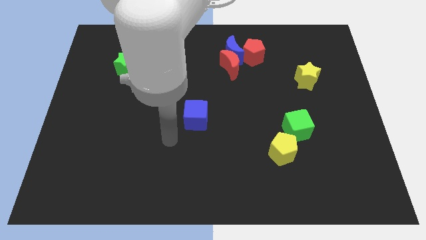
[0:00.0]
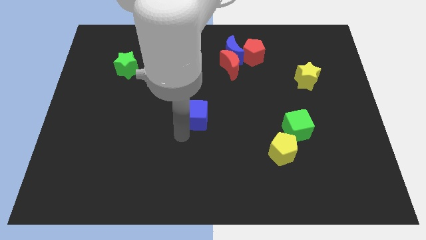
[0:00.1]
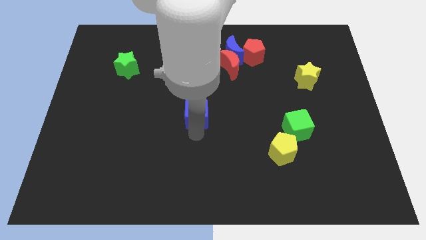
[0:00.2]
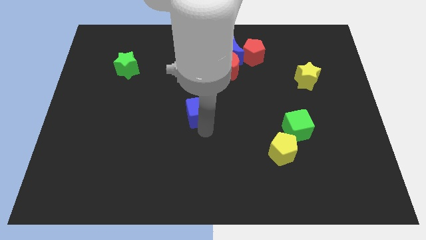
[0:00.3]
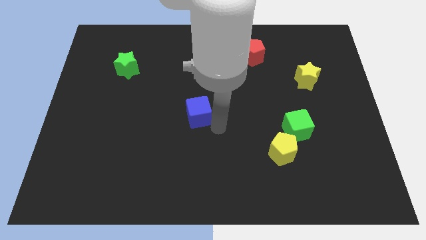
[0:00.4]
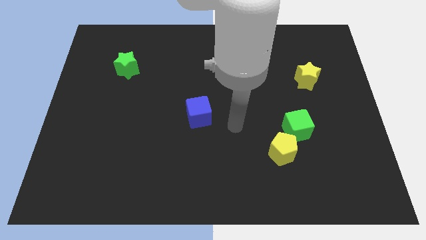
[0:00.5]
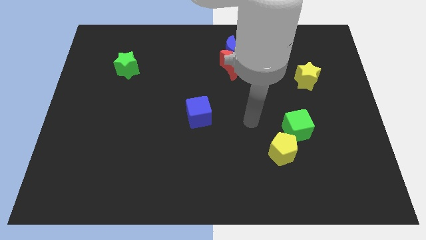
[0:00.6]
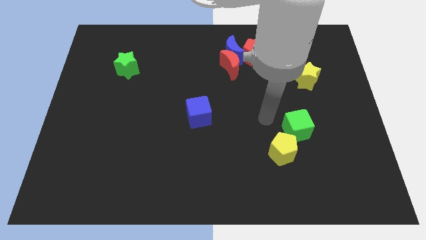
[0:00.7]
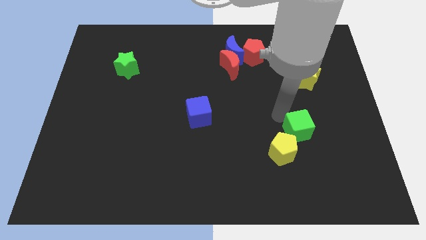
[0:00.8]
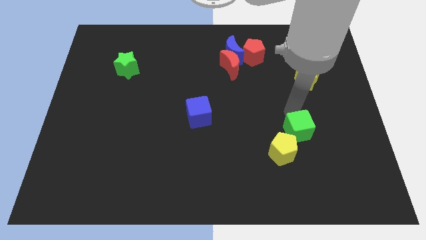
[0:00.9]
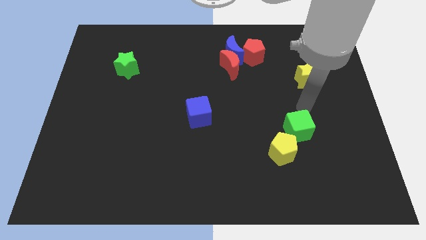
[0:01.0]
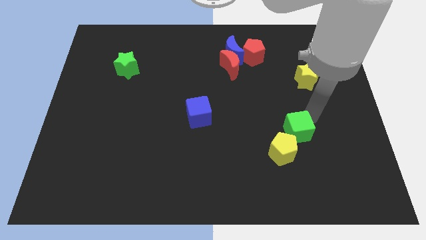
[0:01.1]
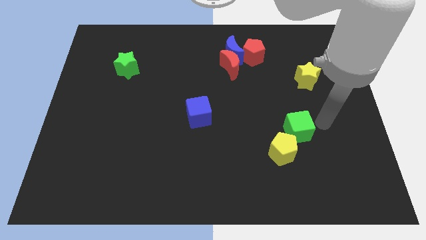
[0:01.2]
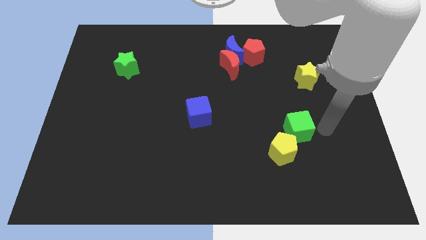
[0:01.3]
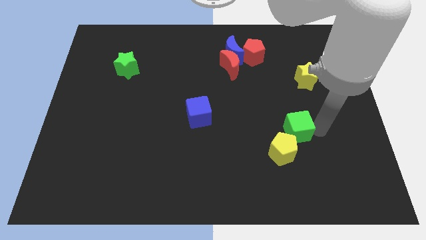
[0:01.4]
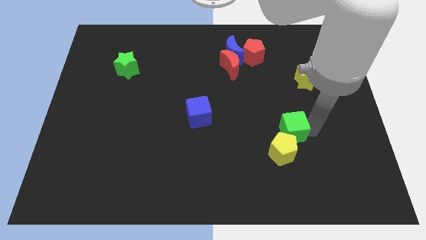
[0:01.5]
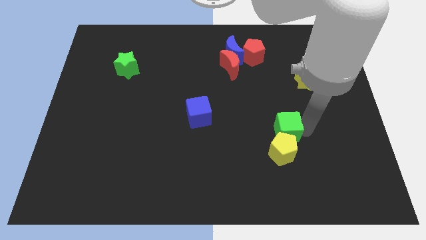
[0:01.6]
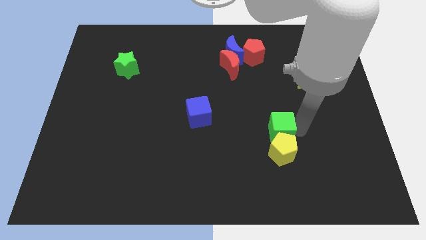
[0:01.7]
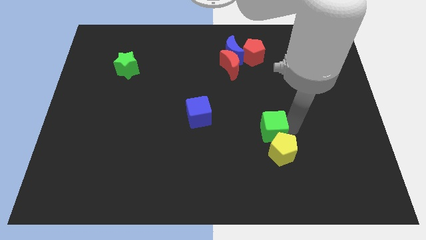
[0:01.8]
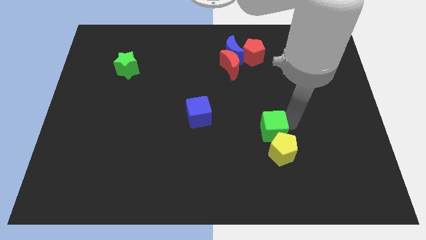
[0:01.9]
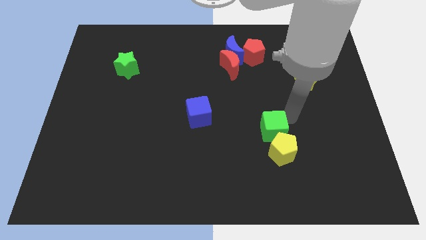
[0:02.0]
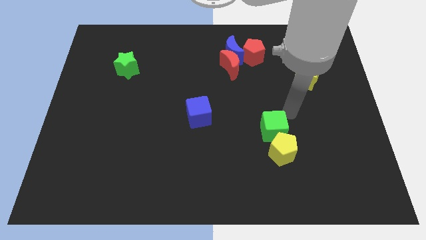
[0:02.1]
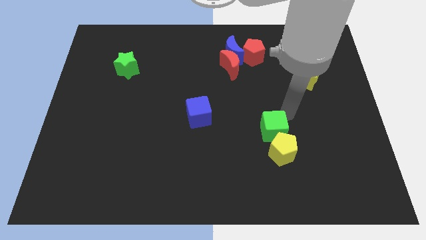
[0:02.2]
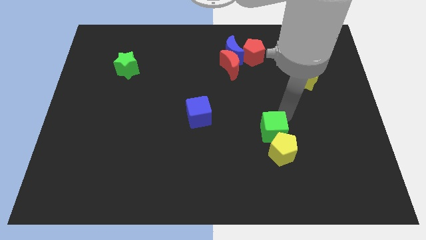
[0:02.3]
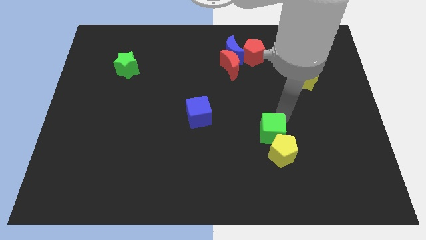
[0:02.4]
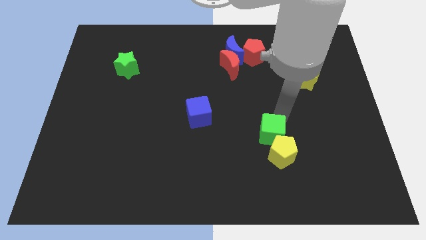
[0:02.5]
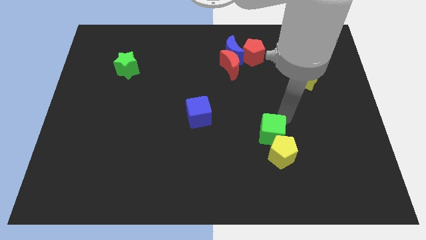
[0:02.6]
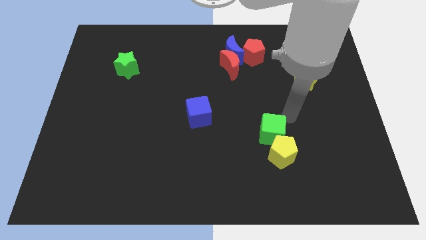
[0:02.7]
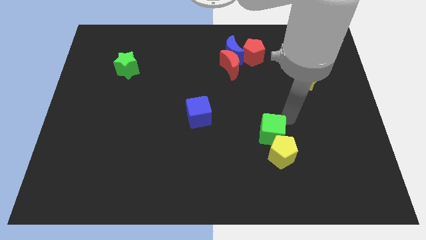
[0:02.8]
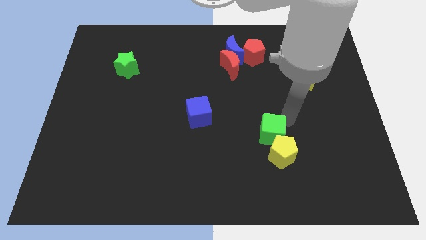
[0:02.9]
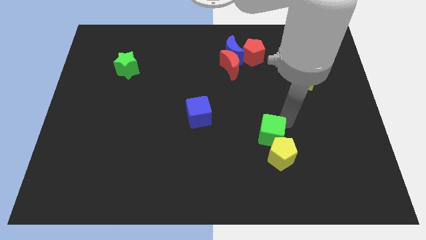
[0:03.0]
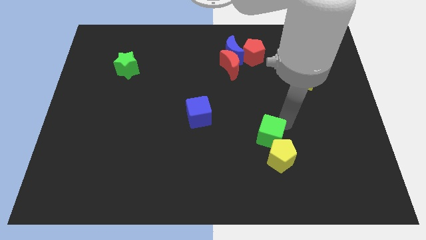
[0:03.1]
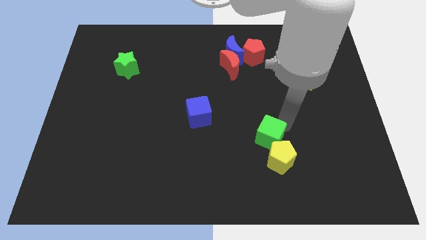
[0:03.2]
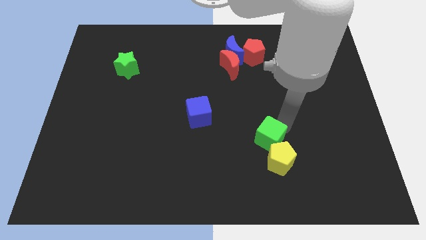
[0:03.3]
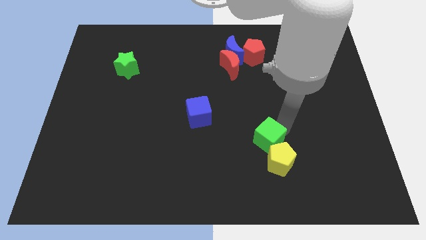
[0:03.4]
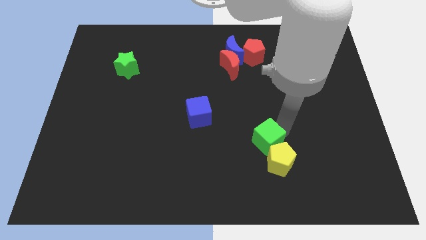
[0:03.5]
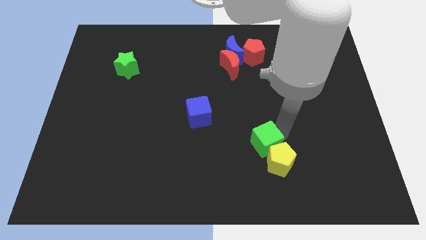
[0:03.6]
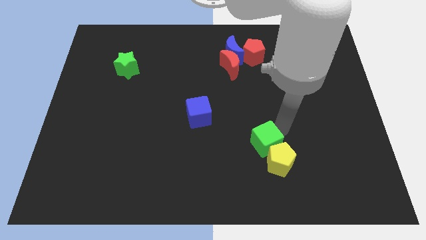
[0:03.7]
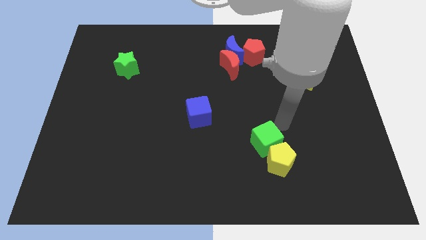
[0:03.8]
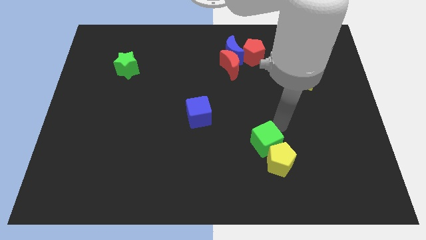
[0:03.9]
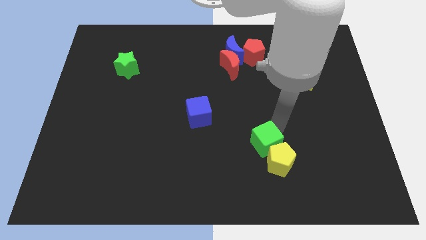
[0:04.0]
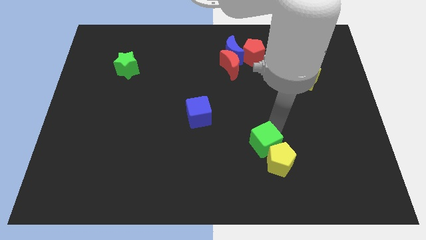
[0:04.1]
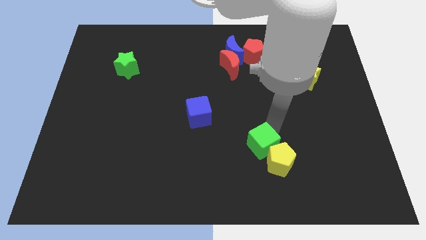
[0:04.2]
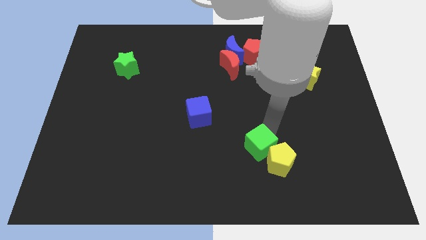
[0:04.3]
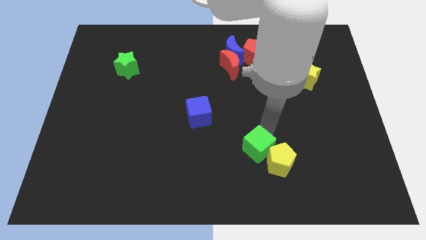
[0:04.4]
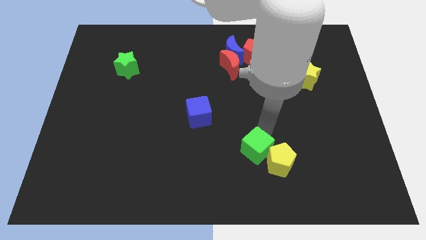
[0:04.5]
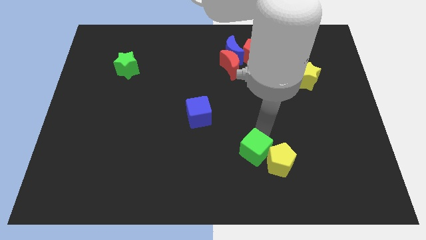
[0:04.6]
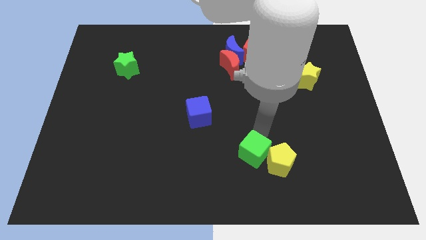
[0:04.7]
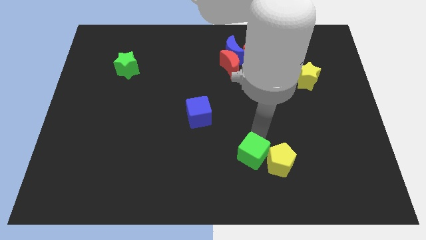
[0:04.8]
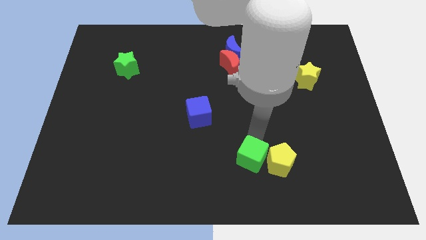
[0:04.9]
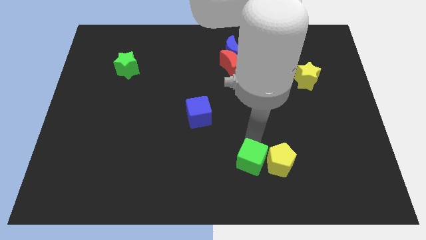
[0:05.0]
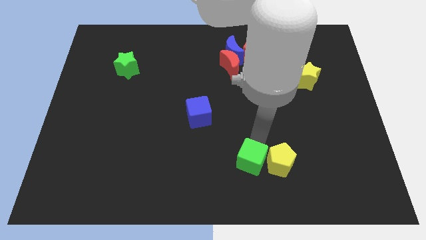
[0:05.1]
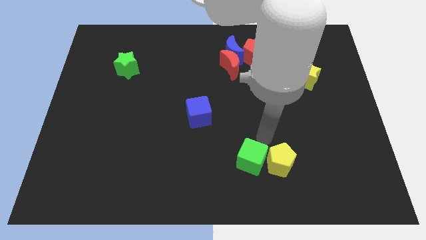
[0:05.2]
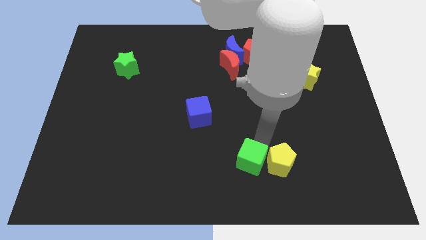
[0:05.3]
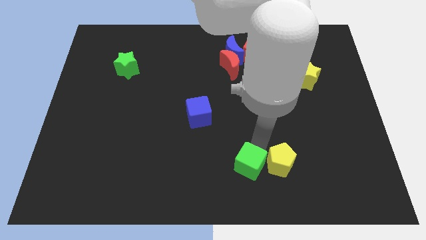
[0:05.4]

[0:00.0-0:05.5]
slide the green cube to the bottom

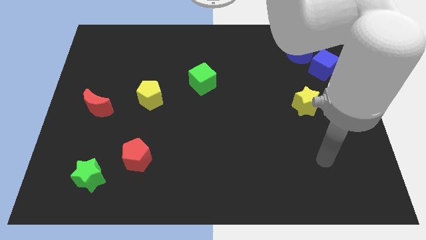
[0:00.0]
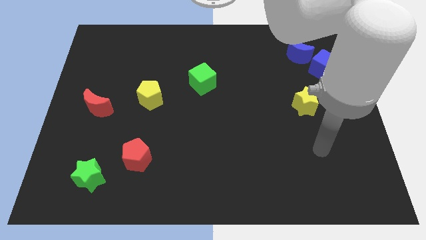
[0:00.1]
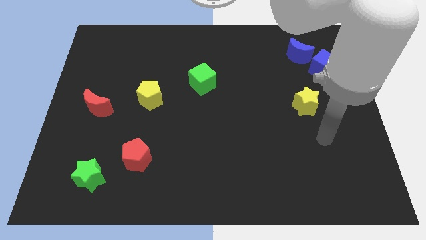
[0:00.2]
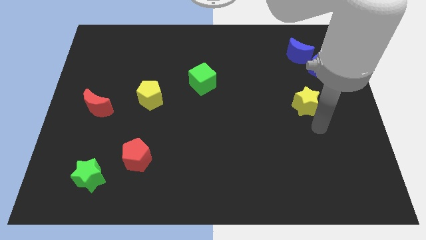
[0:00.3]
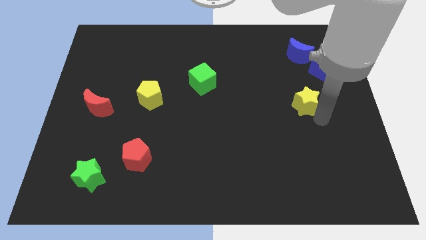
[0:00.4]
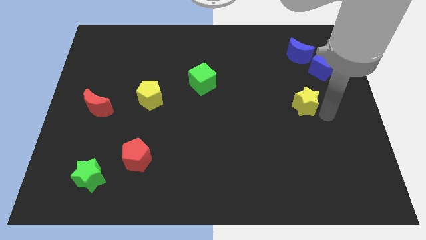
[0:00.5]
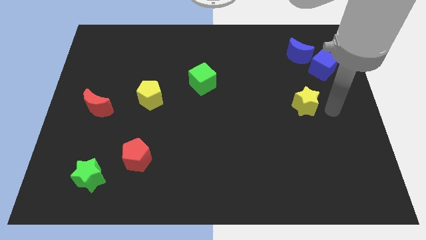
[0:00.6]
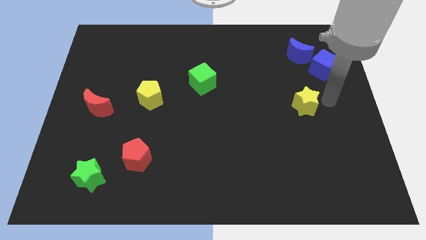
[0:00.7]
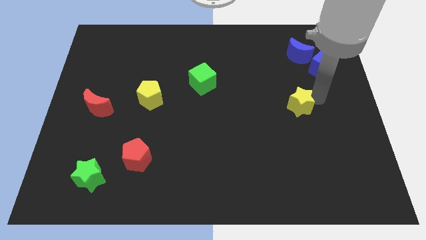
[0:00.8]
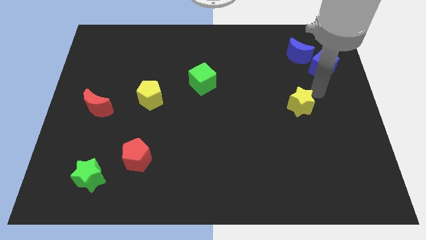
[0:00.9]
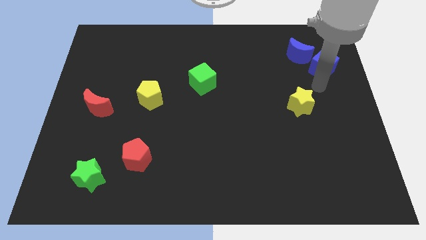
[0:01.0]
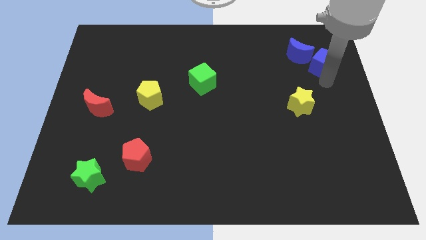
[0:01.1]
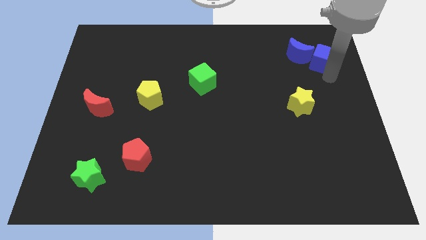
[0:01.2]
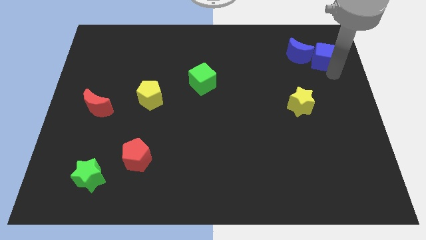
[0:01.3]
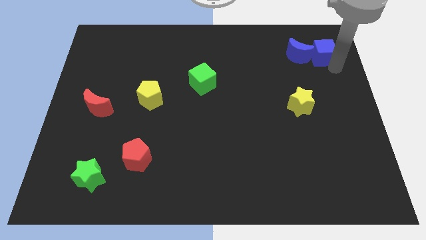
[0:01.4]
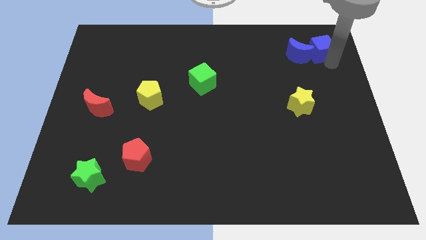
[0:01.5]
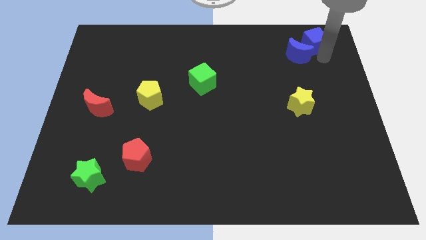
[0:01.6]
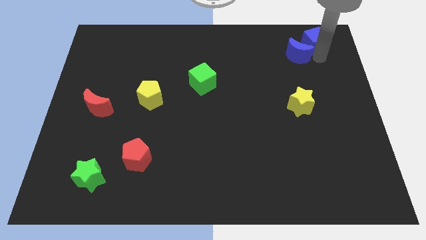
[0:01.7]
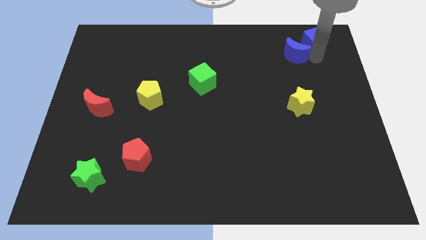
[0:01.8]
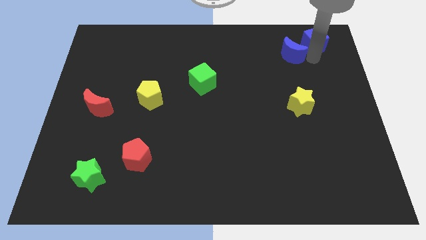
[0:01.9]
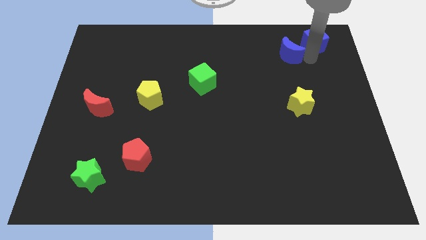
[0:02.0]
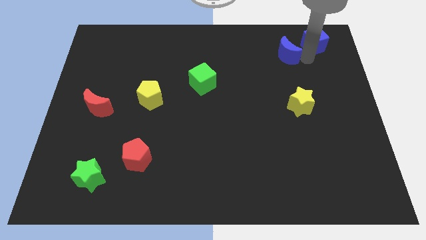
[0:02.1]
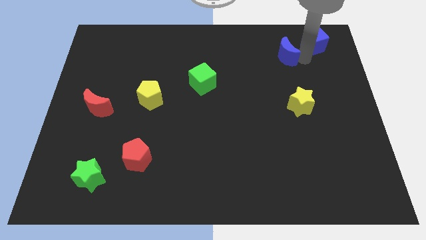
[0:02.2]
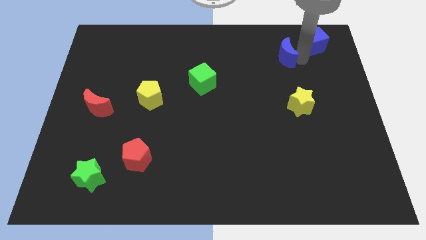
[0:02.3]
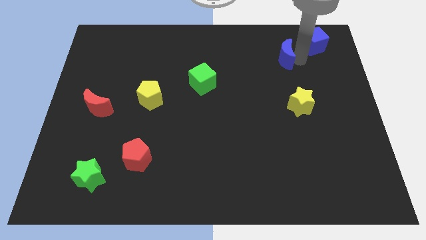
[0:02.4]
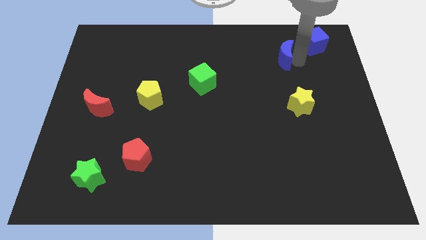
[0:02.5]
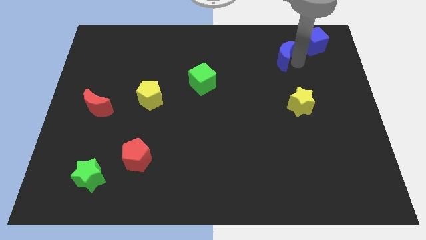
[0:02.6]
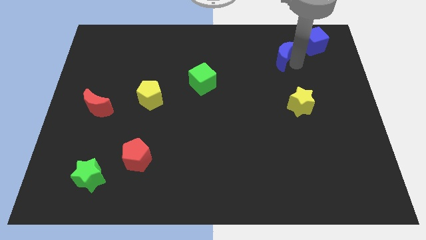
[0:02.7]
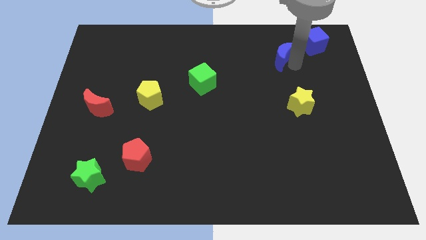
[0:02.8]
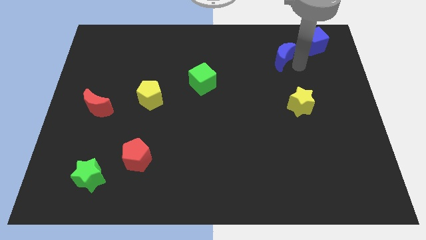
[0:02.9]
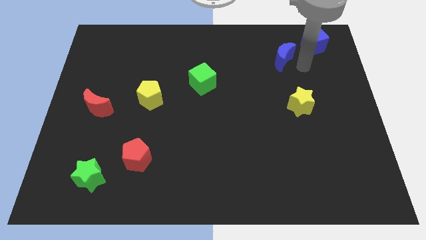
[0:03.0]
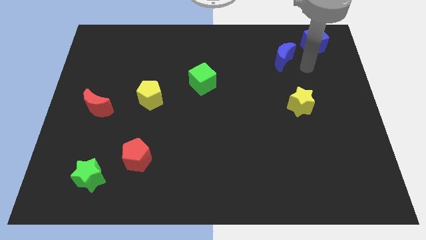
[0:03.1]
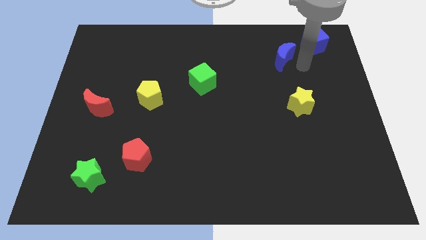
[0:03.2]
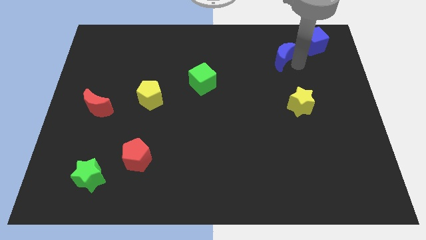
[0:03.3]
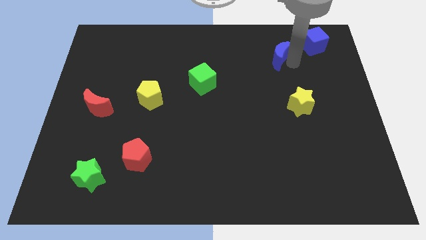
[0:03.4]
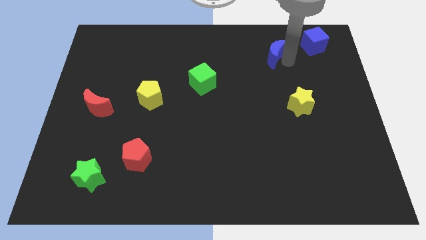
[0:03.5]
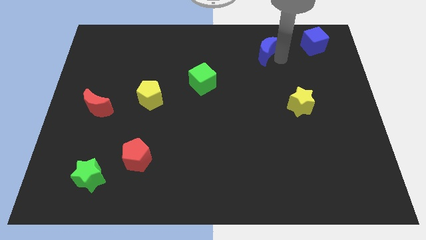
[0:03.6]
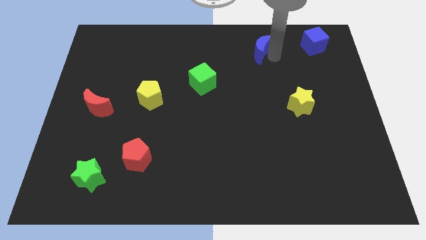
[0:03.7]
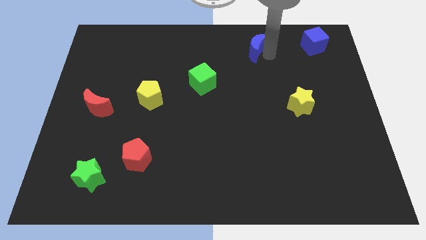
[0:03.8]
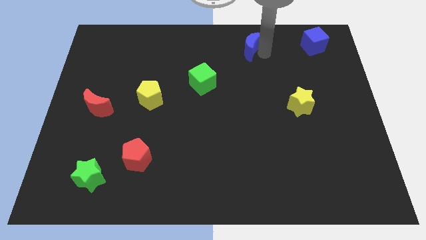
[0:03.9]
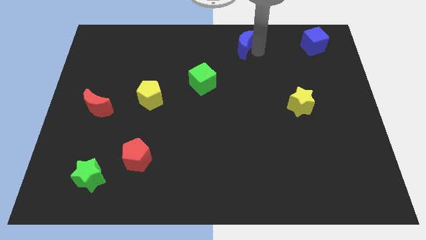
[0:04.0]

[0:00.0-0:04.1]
slide the blue moon to the towards your base
